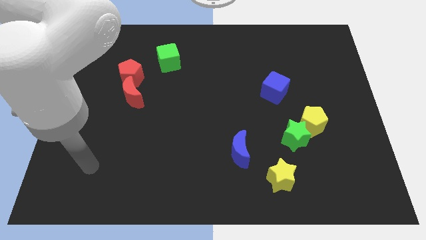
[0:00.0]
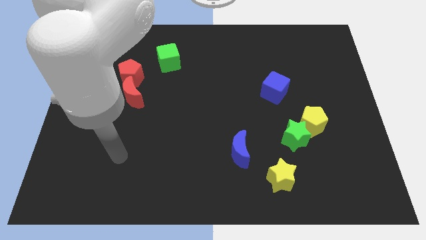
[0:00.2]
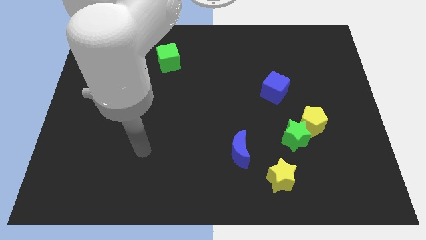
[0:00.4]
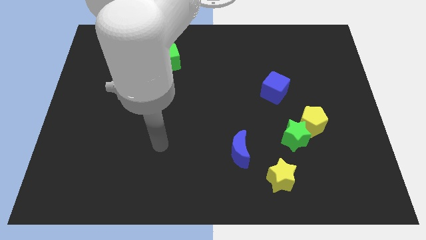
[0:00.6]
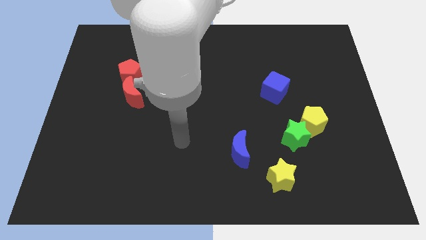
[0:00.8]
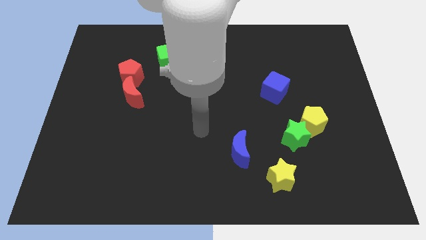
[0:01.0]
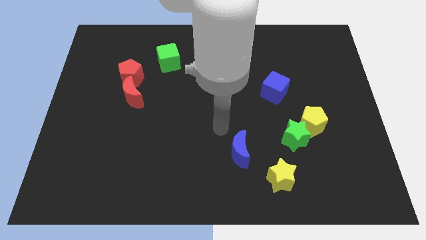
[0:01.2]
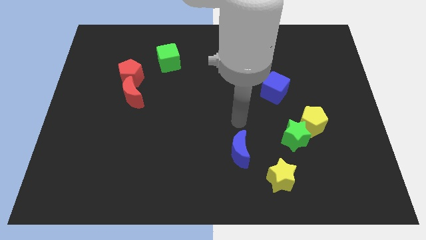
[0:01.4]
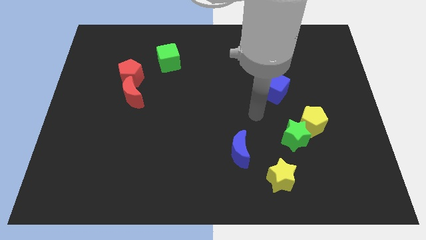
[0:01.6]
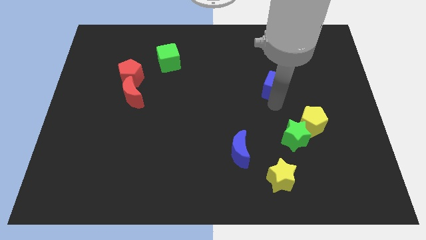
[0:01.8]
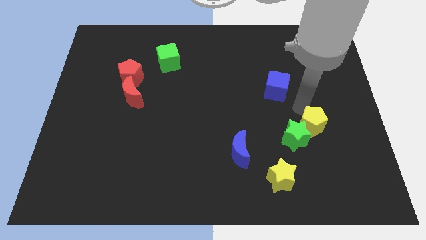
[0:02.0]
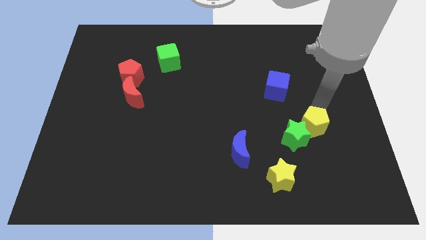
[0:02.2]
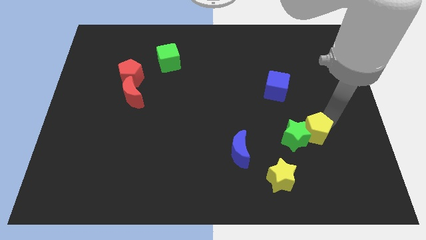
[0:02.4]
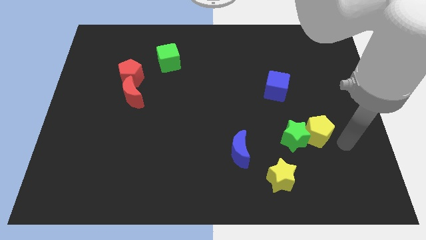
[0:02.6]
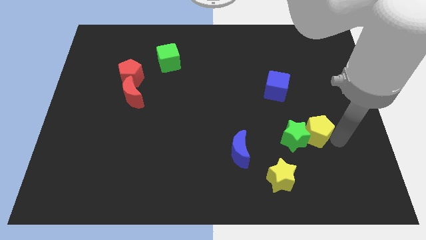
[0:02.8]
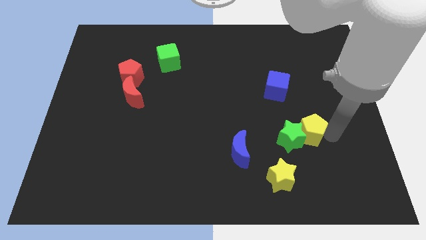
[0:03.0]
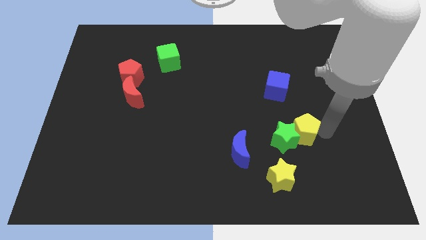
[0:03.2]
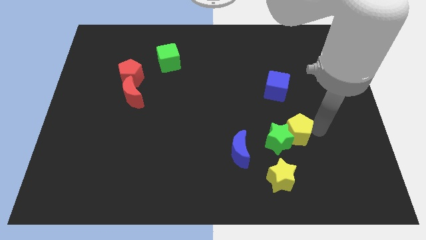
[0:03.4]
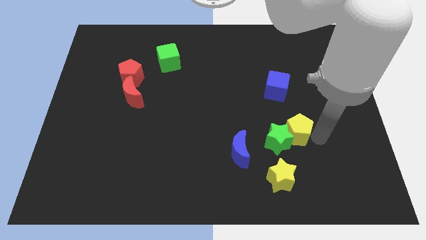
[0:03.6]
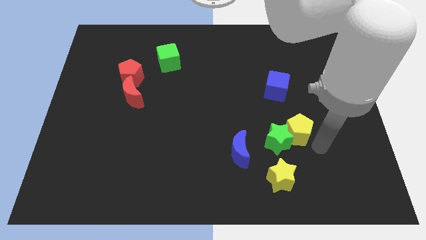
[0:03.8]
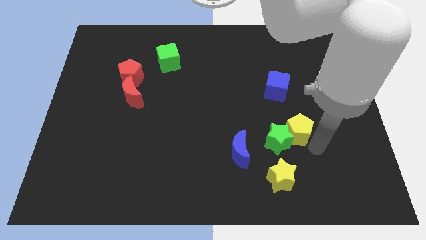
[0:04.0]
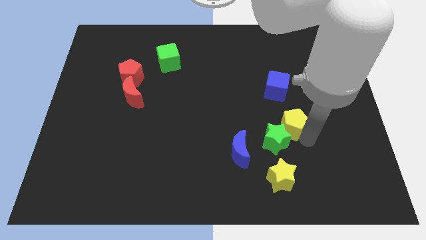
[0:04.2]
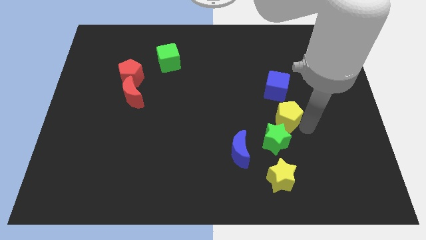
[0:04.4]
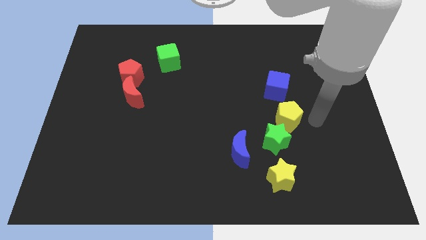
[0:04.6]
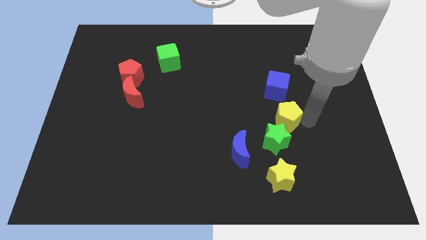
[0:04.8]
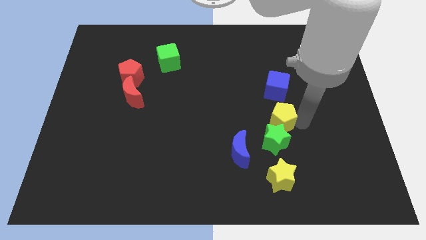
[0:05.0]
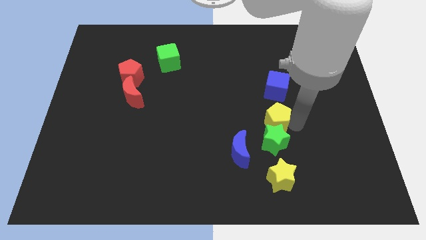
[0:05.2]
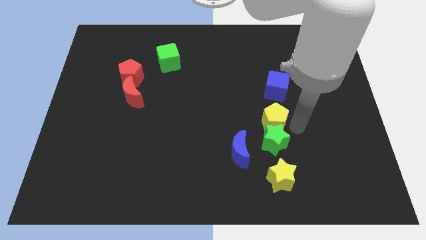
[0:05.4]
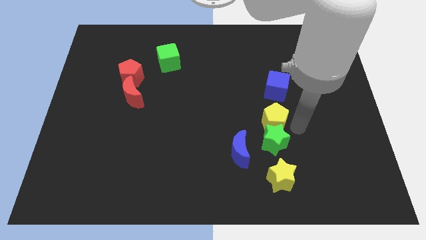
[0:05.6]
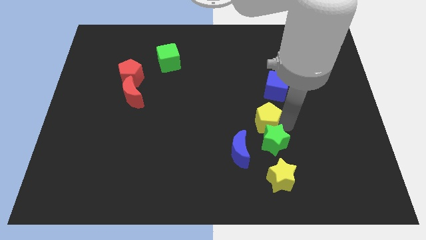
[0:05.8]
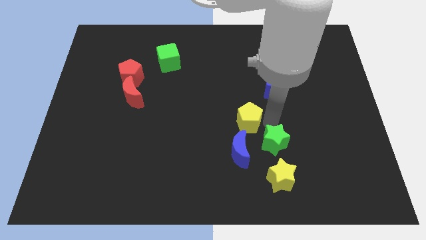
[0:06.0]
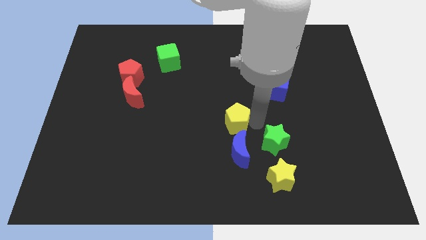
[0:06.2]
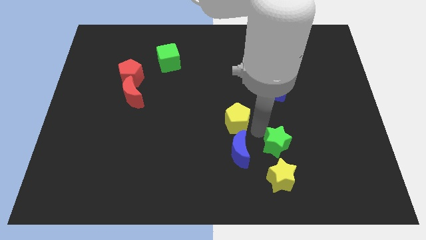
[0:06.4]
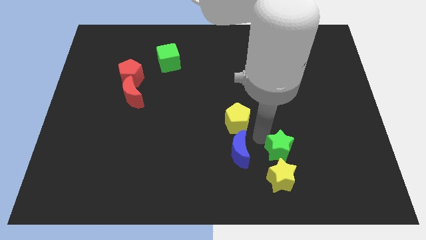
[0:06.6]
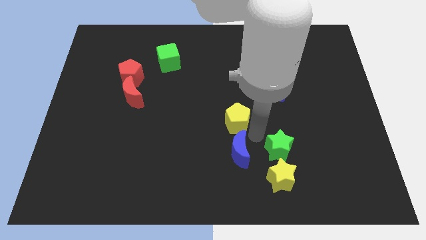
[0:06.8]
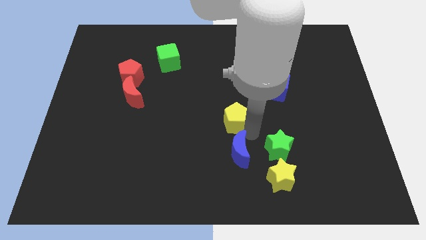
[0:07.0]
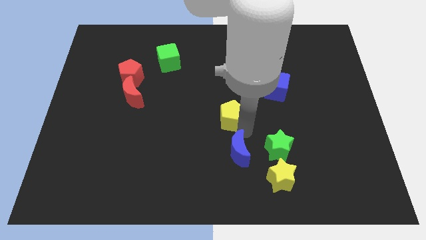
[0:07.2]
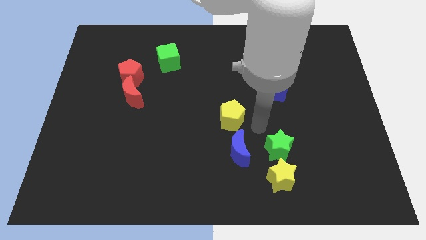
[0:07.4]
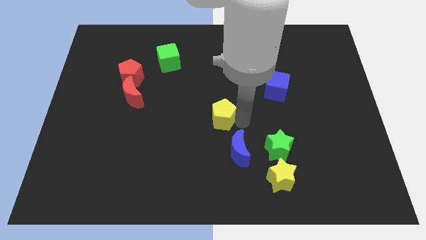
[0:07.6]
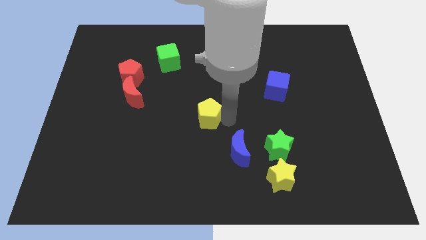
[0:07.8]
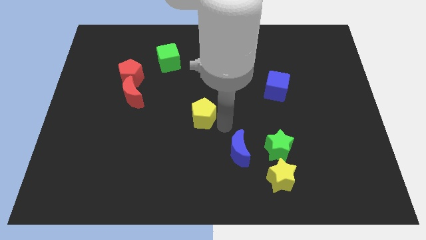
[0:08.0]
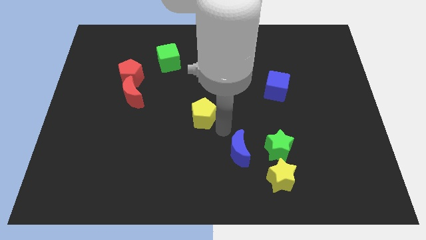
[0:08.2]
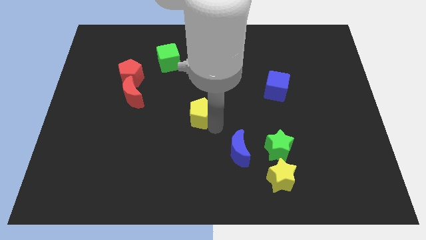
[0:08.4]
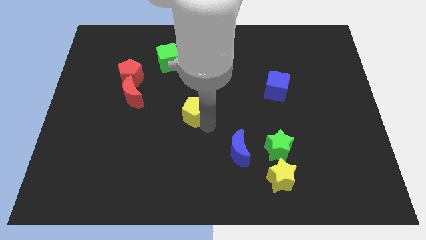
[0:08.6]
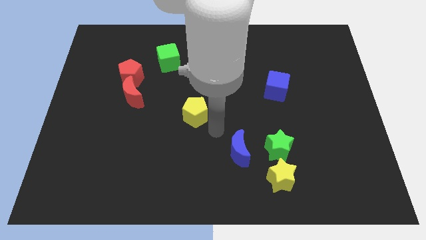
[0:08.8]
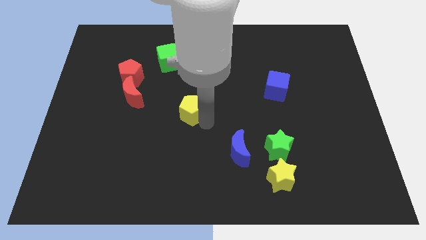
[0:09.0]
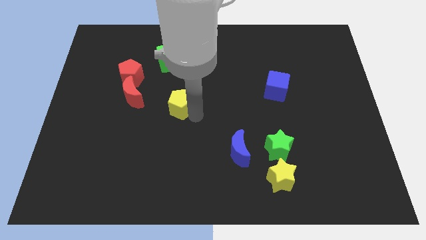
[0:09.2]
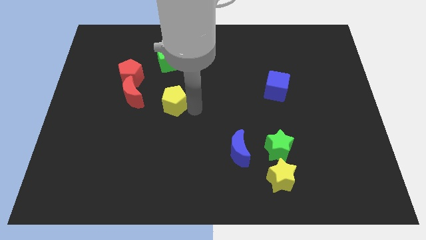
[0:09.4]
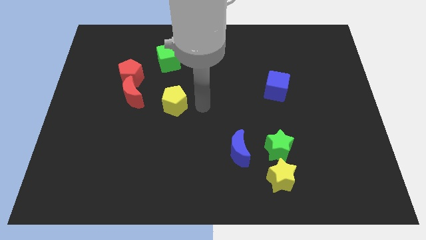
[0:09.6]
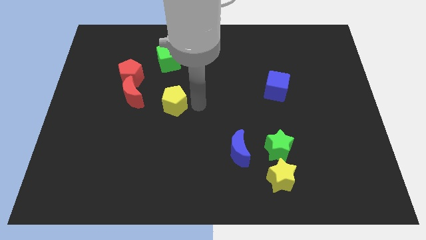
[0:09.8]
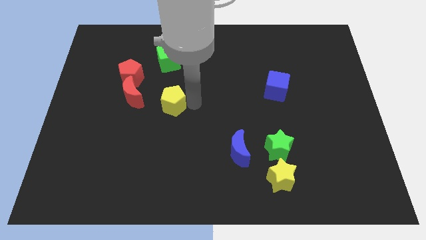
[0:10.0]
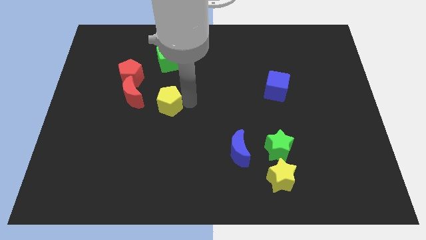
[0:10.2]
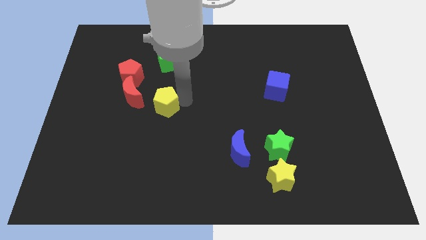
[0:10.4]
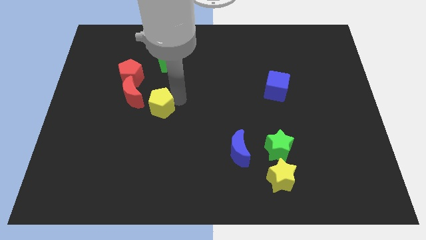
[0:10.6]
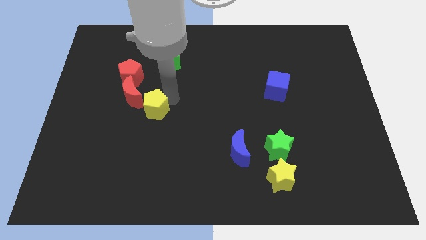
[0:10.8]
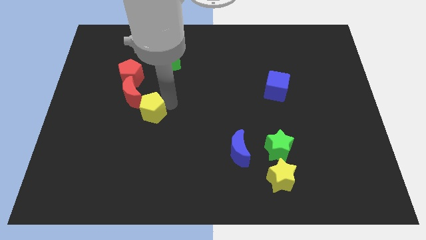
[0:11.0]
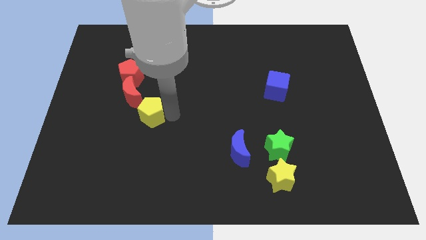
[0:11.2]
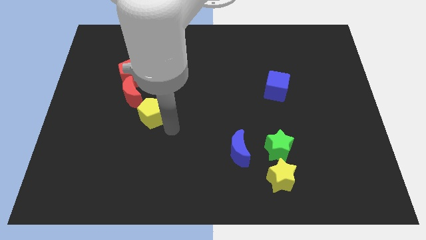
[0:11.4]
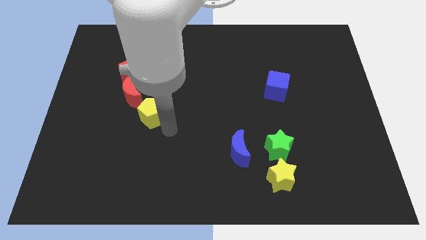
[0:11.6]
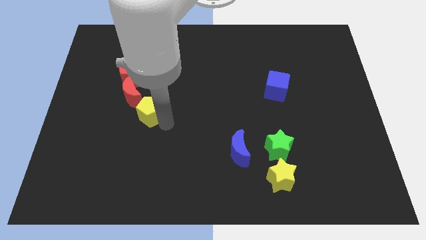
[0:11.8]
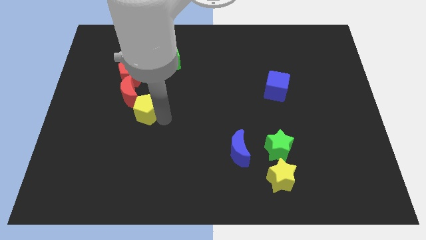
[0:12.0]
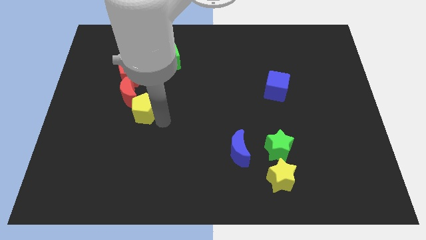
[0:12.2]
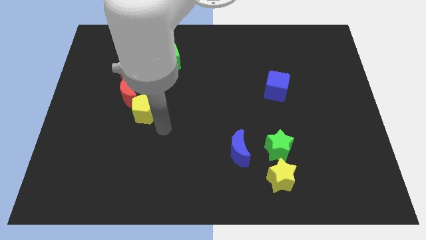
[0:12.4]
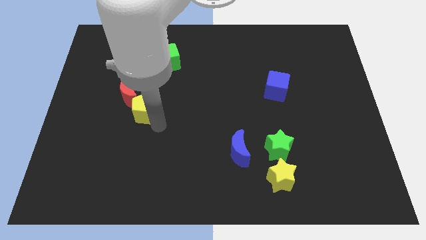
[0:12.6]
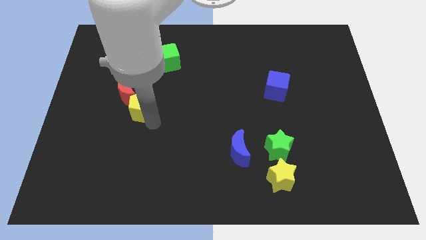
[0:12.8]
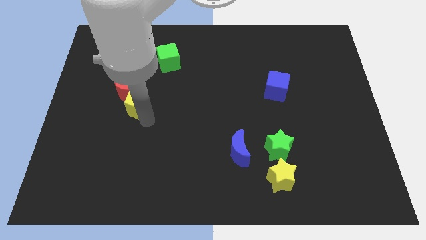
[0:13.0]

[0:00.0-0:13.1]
move the yellow pentagon next to the red moon
